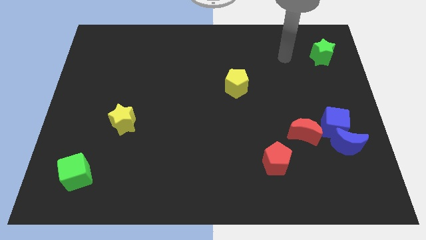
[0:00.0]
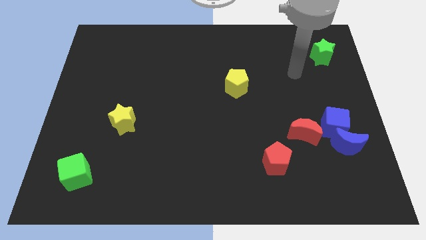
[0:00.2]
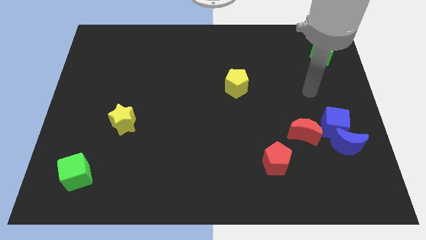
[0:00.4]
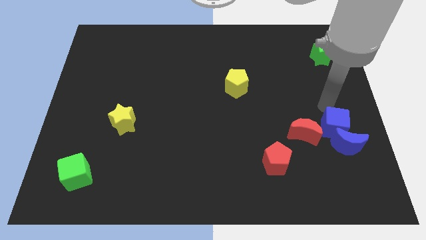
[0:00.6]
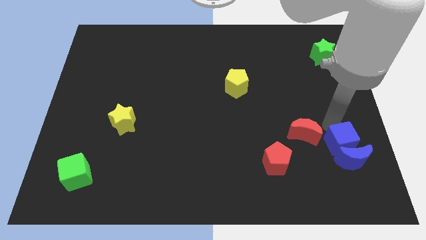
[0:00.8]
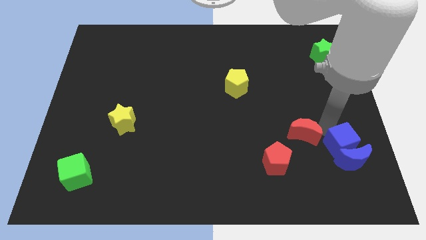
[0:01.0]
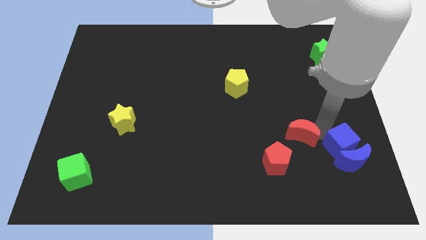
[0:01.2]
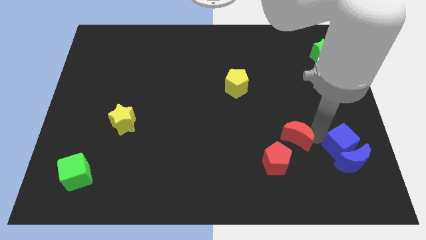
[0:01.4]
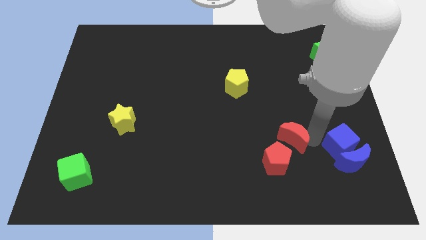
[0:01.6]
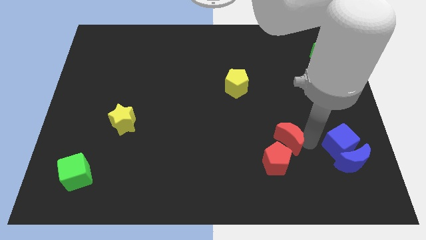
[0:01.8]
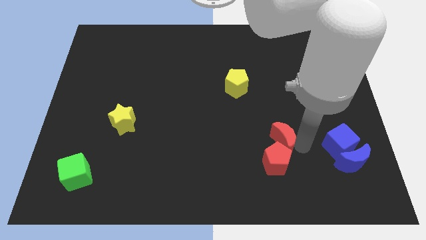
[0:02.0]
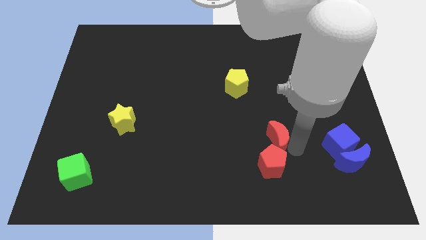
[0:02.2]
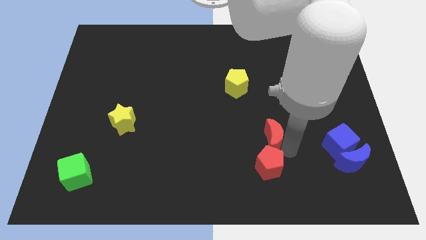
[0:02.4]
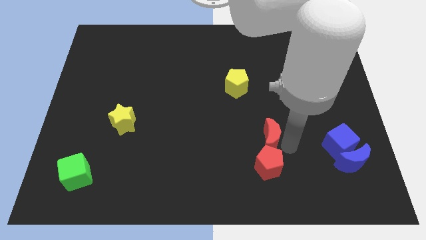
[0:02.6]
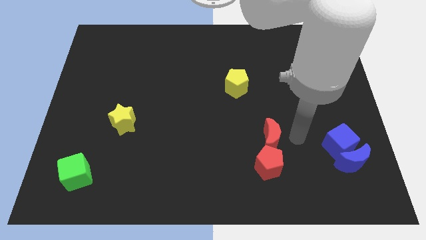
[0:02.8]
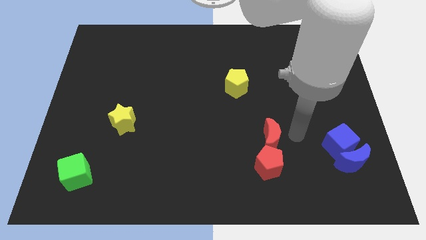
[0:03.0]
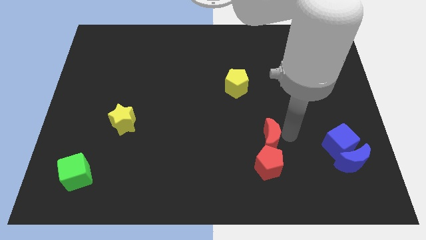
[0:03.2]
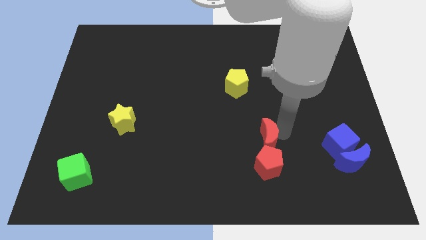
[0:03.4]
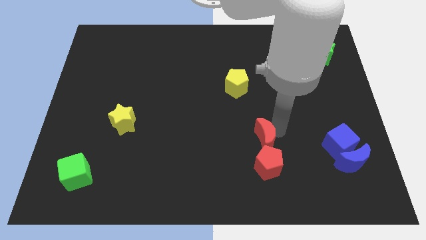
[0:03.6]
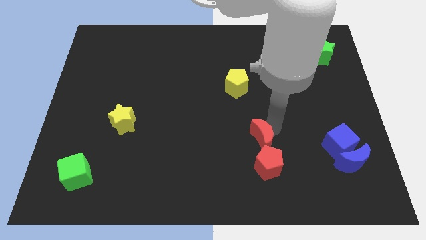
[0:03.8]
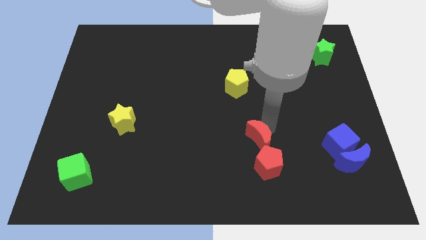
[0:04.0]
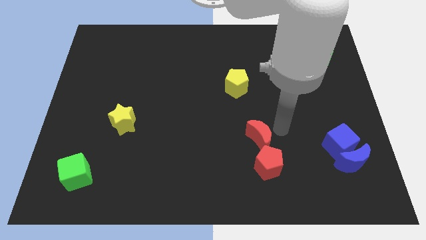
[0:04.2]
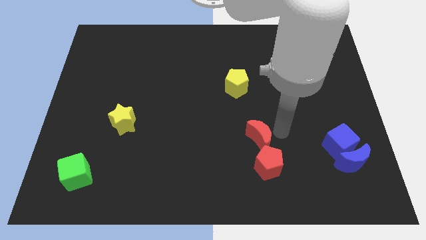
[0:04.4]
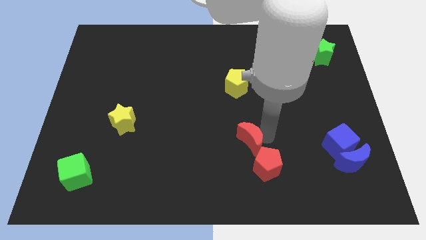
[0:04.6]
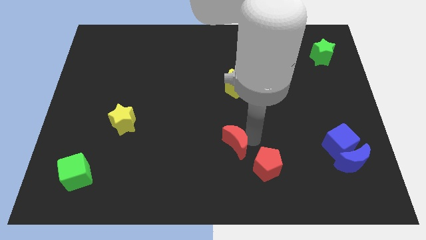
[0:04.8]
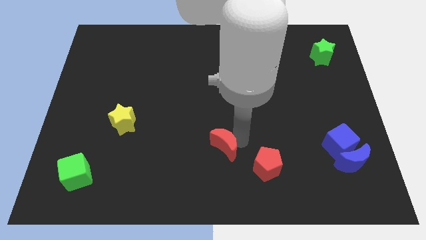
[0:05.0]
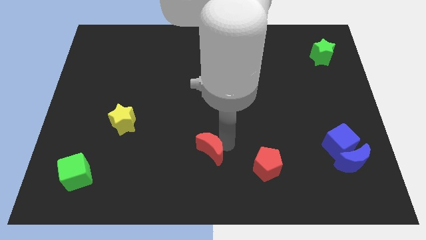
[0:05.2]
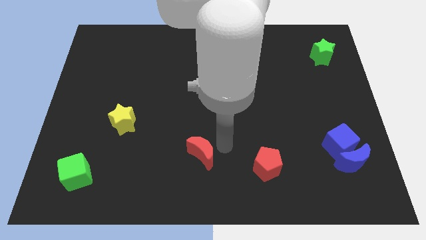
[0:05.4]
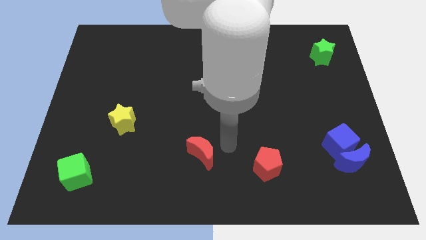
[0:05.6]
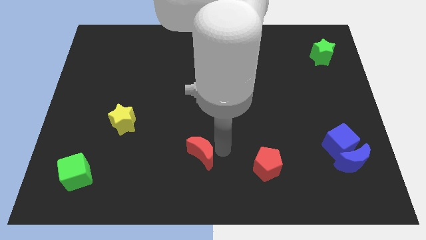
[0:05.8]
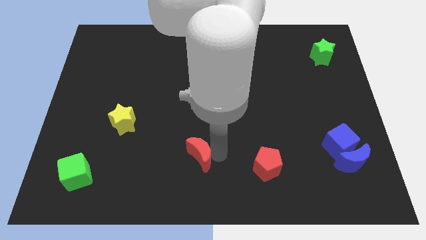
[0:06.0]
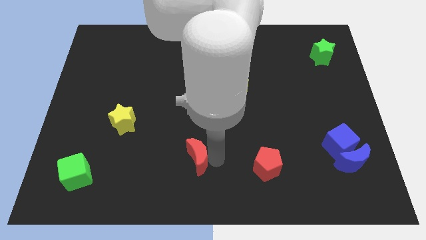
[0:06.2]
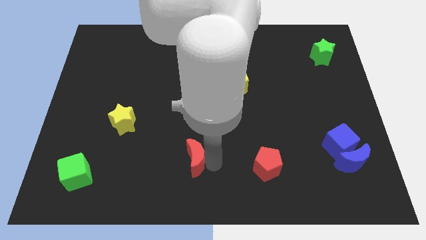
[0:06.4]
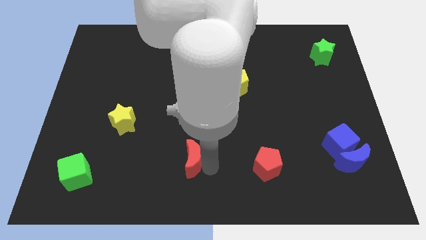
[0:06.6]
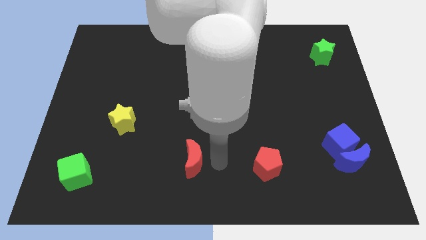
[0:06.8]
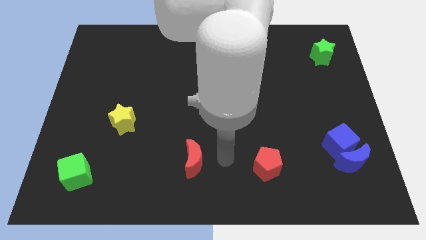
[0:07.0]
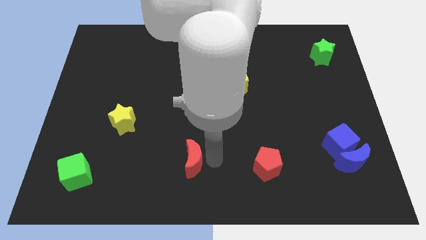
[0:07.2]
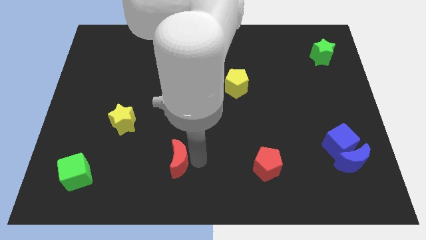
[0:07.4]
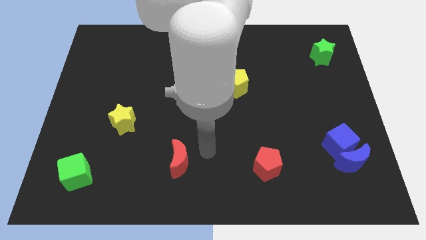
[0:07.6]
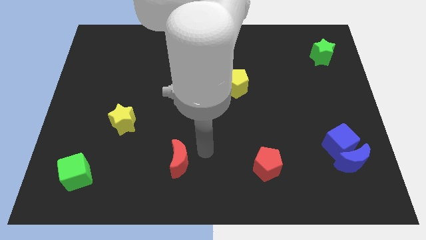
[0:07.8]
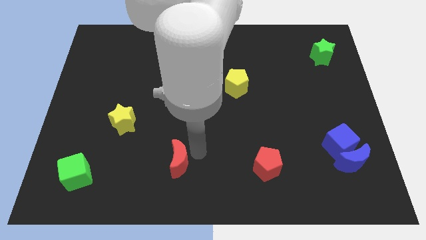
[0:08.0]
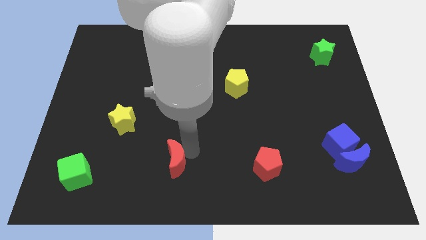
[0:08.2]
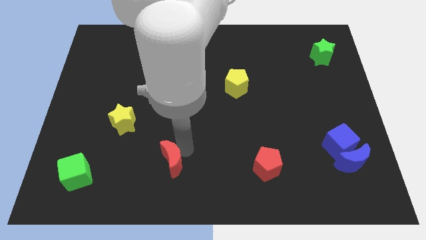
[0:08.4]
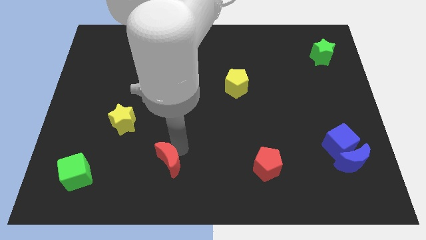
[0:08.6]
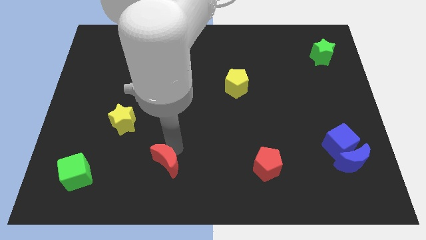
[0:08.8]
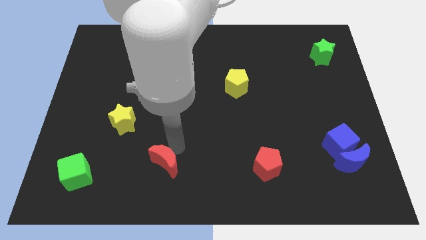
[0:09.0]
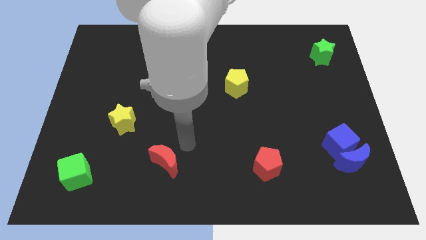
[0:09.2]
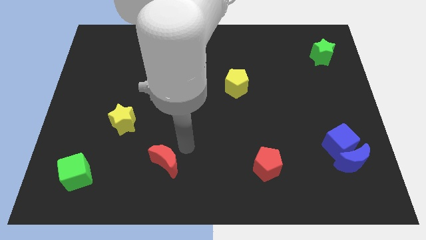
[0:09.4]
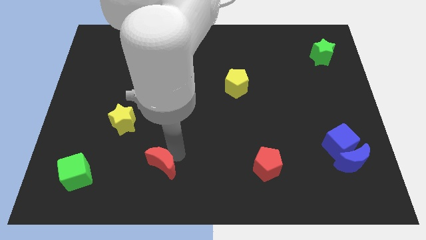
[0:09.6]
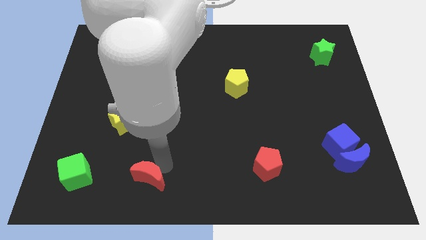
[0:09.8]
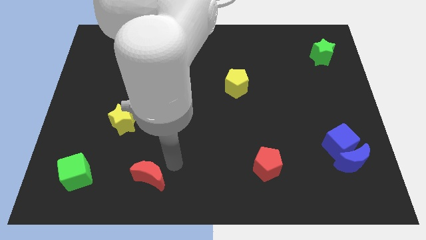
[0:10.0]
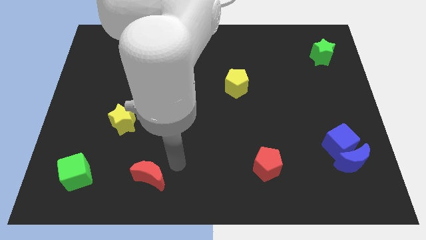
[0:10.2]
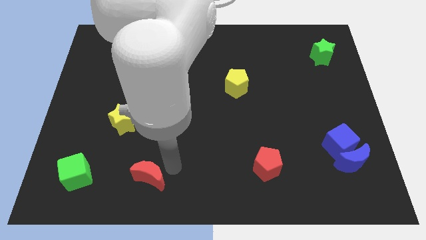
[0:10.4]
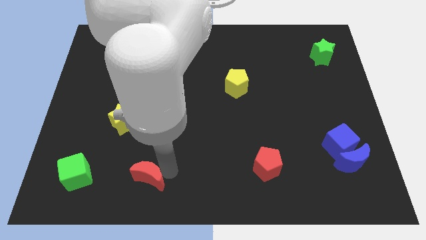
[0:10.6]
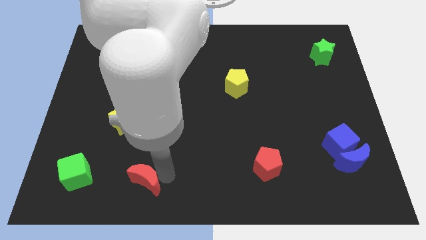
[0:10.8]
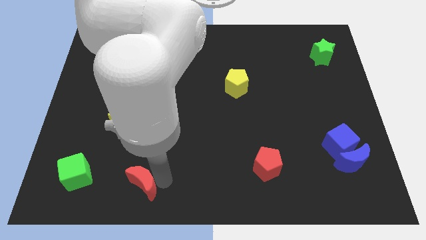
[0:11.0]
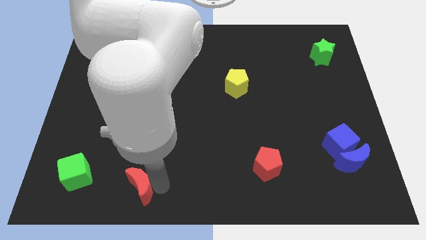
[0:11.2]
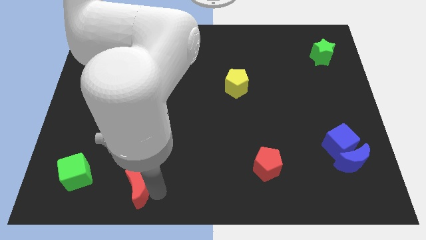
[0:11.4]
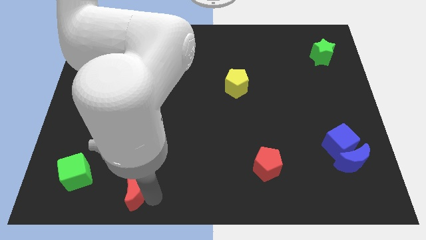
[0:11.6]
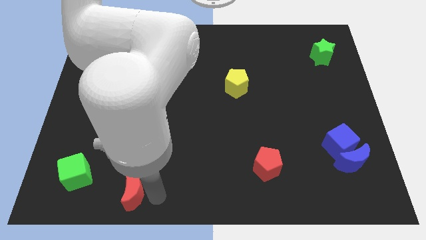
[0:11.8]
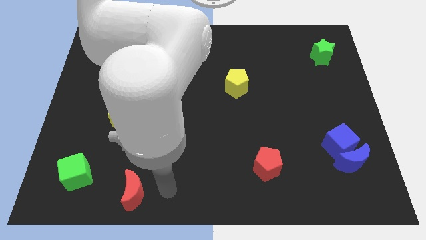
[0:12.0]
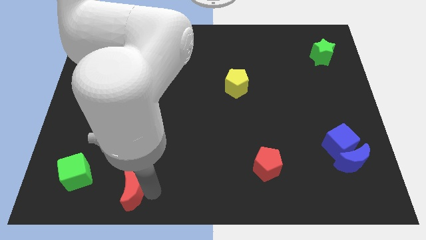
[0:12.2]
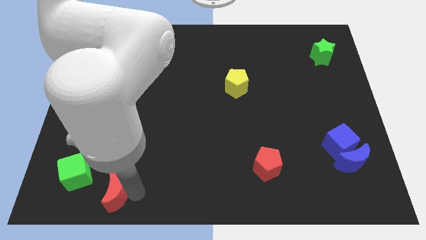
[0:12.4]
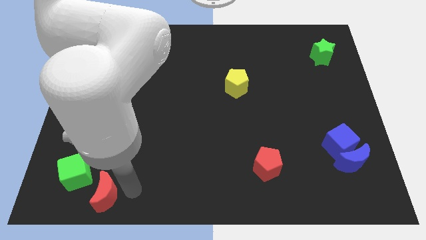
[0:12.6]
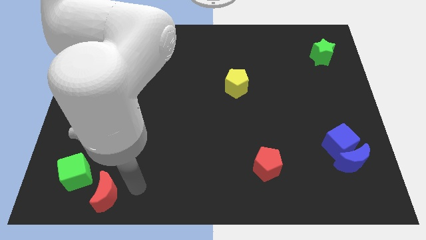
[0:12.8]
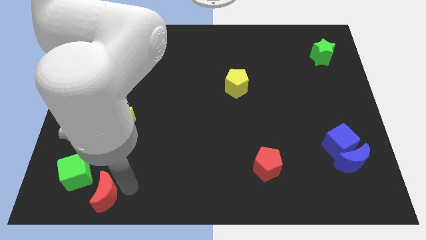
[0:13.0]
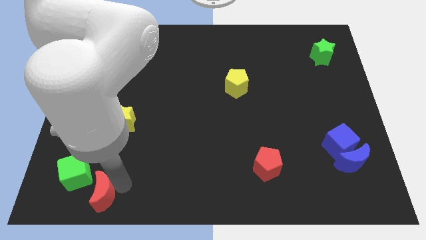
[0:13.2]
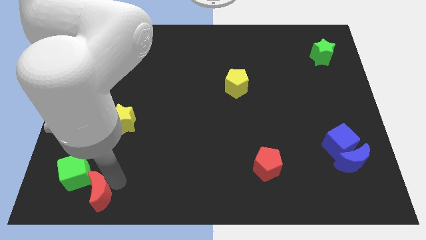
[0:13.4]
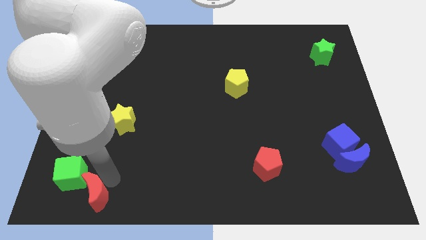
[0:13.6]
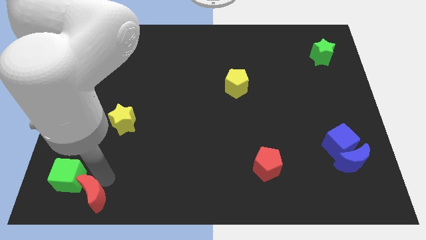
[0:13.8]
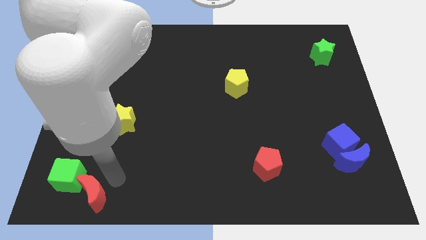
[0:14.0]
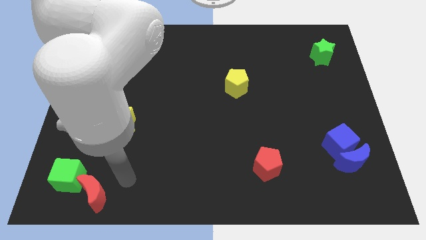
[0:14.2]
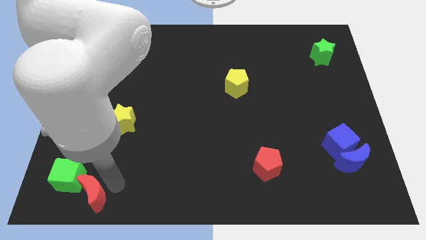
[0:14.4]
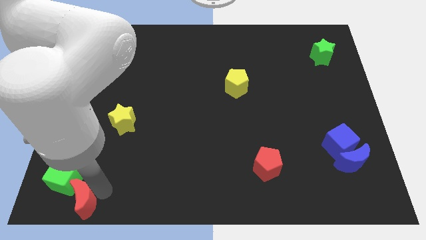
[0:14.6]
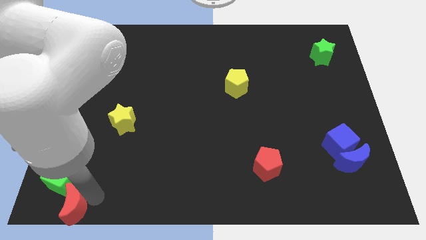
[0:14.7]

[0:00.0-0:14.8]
slide the red moon to the lower left corner
